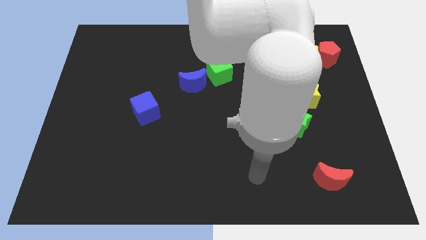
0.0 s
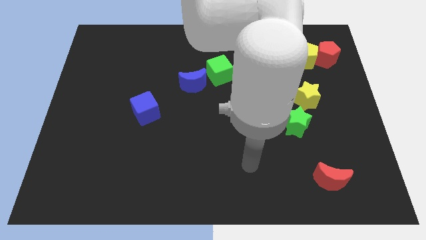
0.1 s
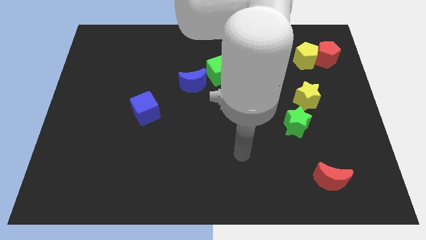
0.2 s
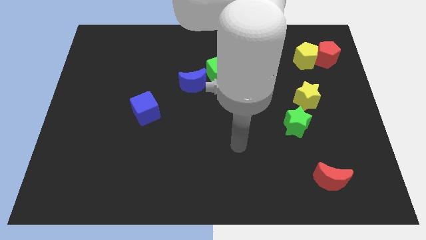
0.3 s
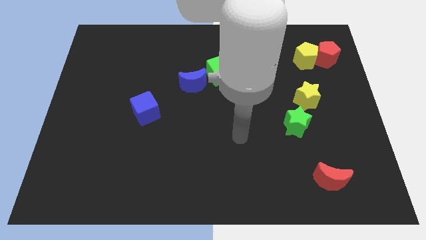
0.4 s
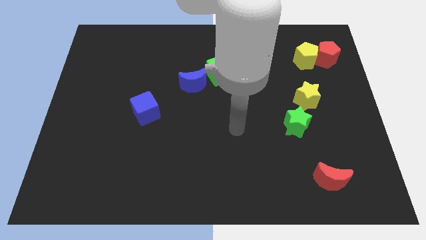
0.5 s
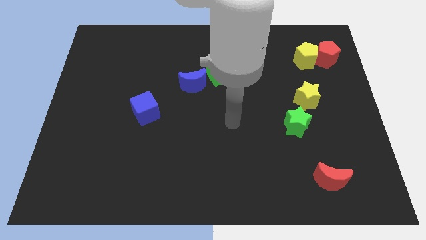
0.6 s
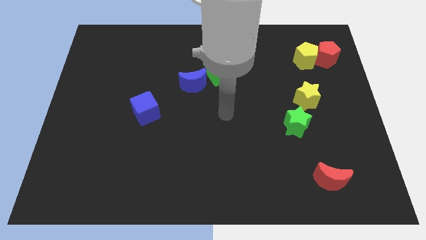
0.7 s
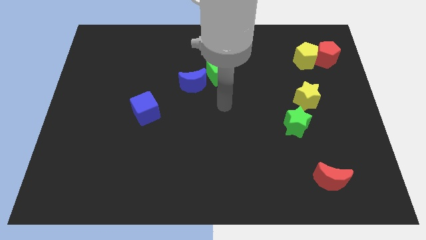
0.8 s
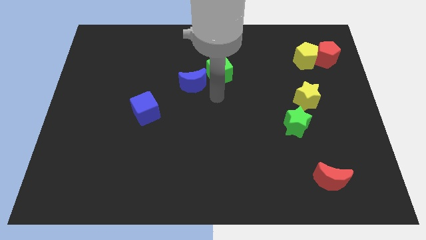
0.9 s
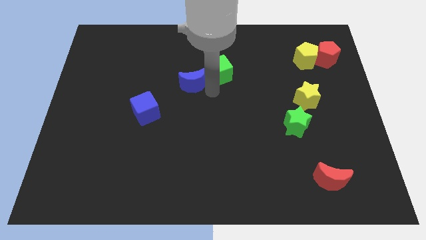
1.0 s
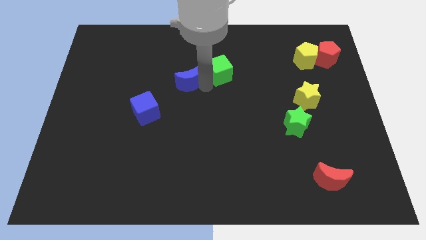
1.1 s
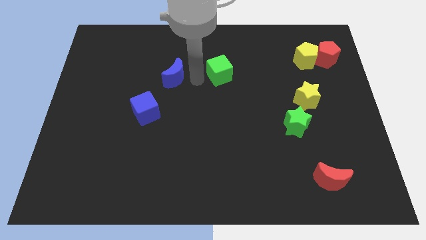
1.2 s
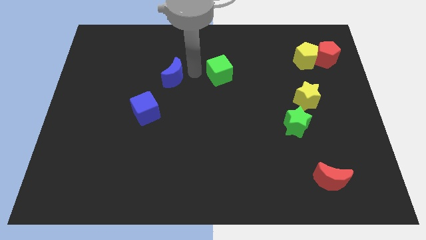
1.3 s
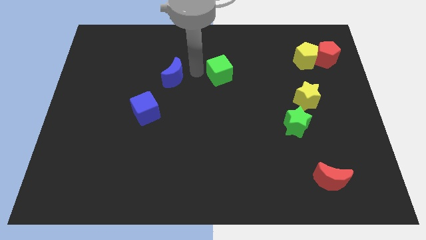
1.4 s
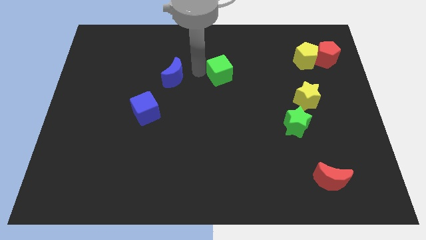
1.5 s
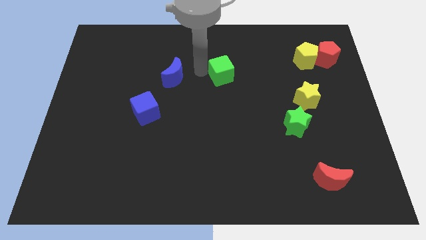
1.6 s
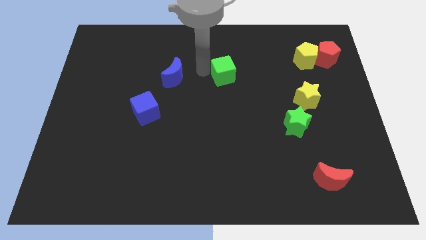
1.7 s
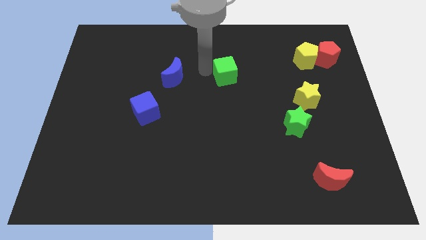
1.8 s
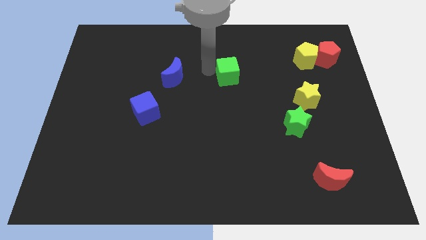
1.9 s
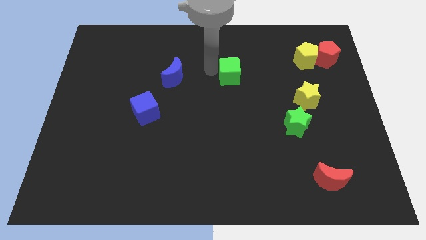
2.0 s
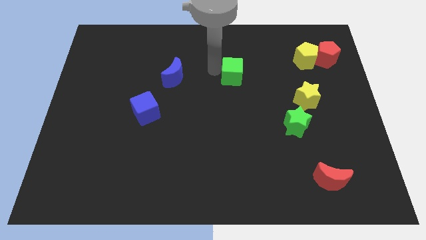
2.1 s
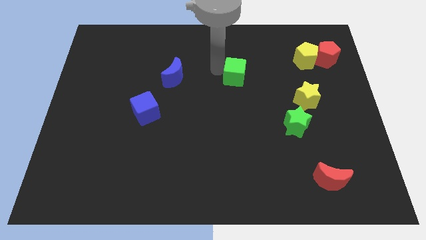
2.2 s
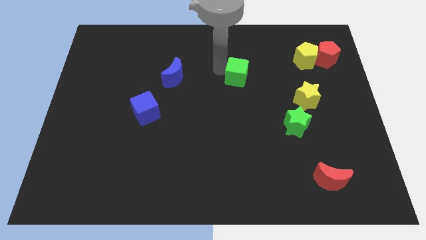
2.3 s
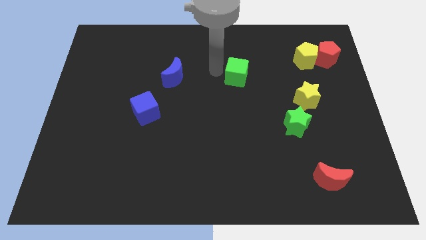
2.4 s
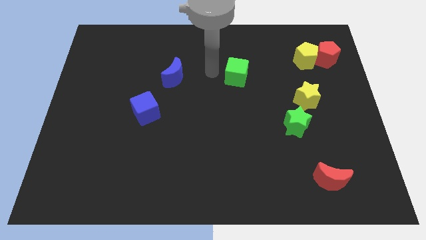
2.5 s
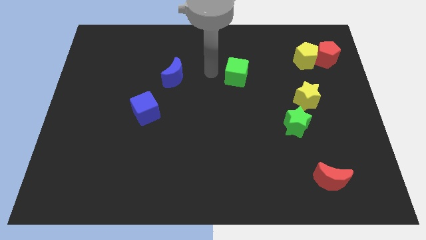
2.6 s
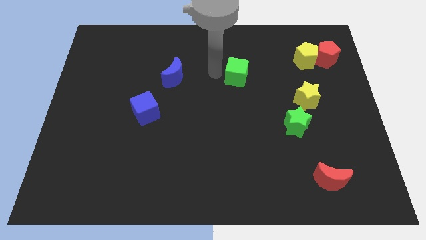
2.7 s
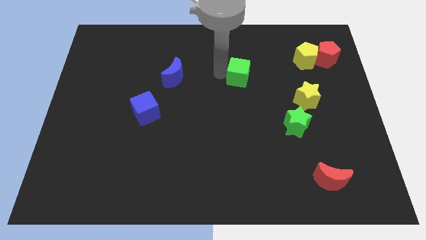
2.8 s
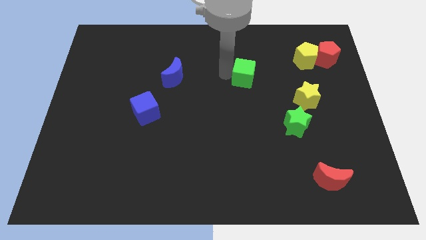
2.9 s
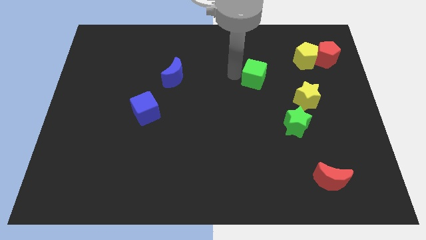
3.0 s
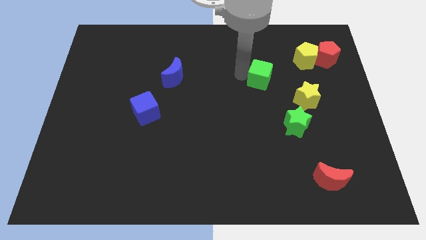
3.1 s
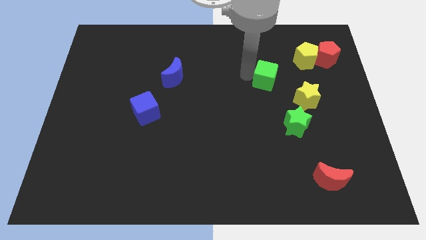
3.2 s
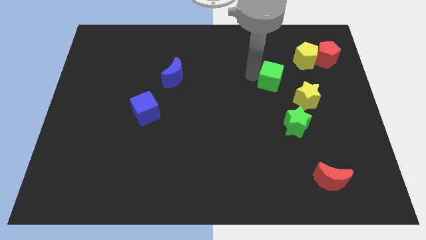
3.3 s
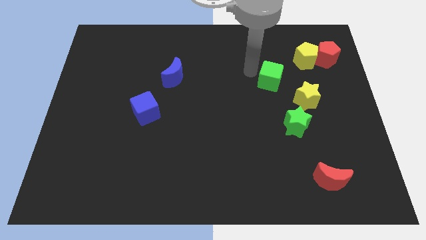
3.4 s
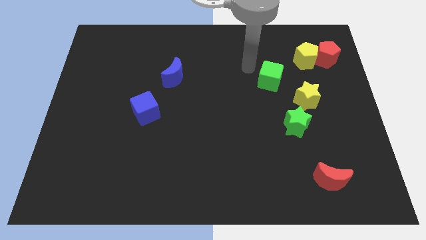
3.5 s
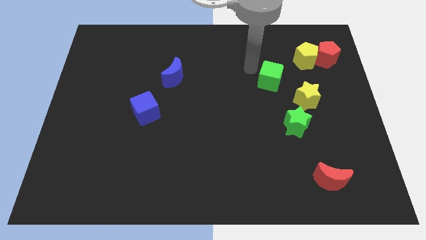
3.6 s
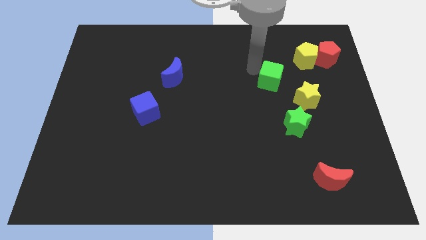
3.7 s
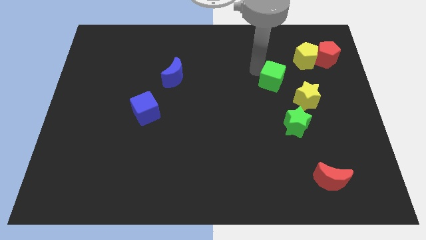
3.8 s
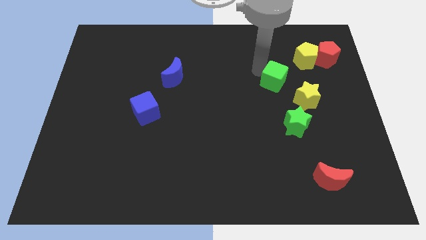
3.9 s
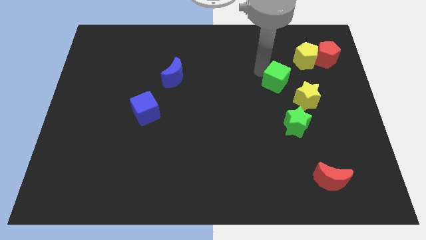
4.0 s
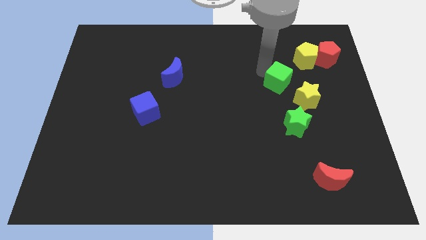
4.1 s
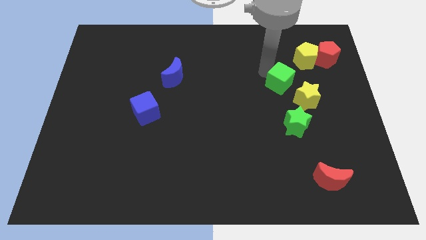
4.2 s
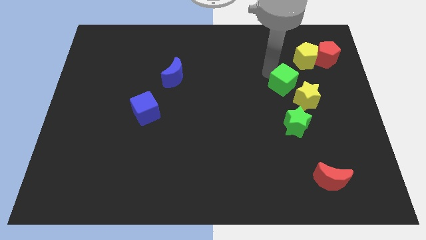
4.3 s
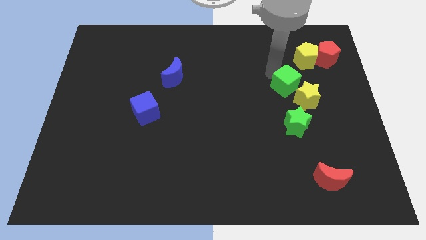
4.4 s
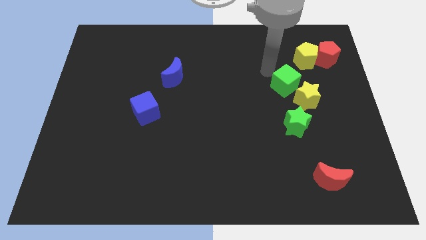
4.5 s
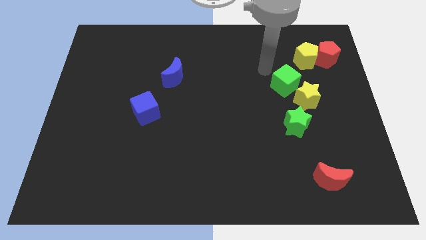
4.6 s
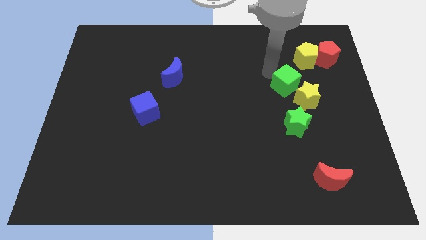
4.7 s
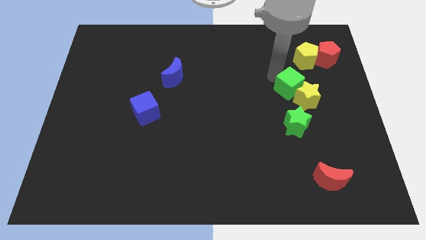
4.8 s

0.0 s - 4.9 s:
push the green cube close to the yellow star

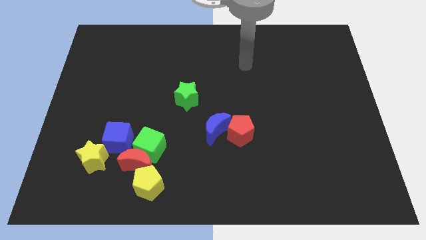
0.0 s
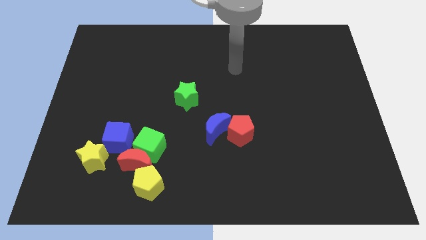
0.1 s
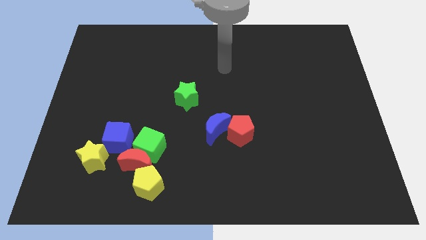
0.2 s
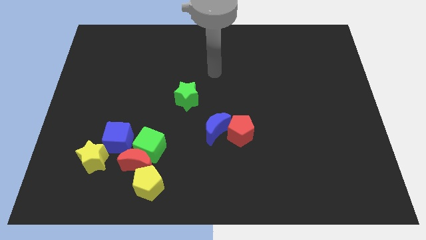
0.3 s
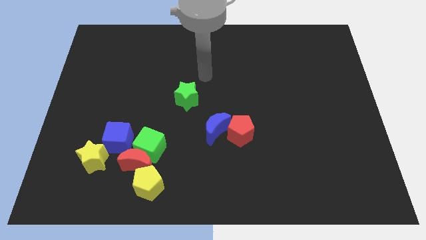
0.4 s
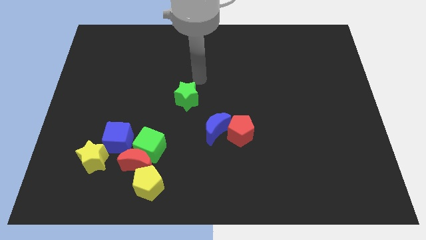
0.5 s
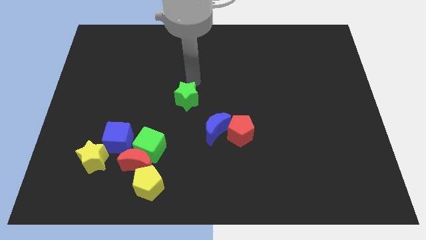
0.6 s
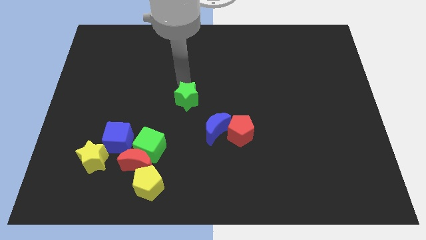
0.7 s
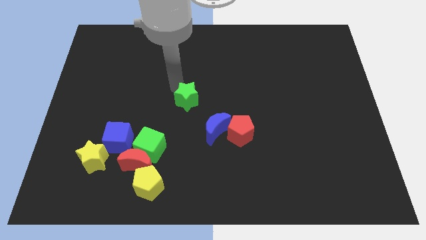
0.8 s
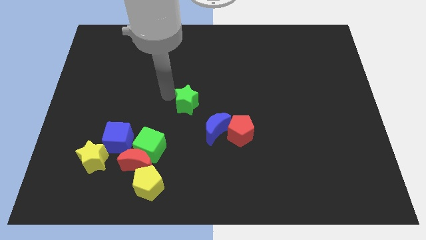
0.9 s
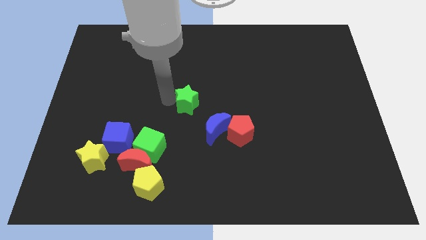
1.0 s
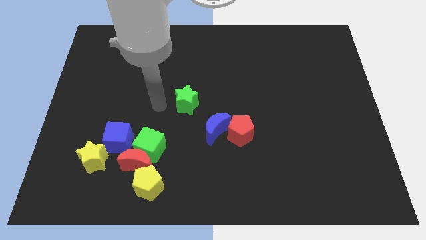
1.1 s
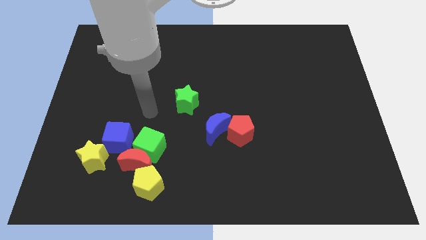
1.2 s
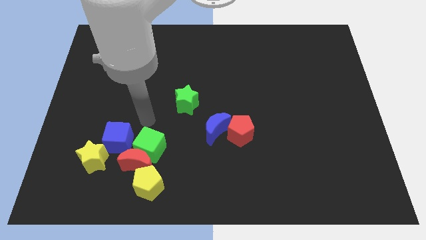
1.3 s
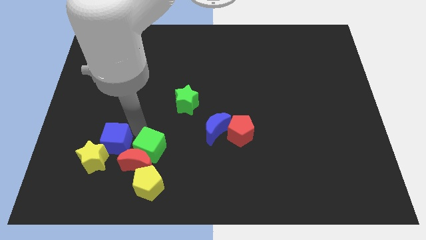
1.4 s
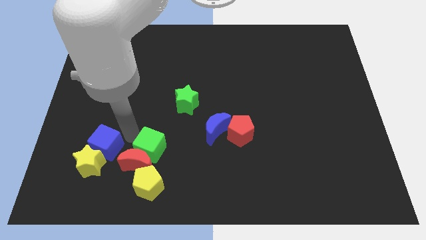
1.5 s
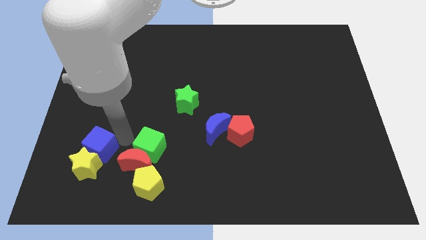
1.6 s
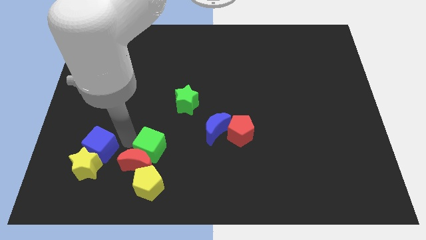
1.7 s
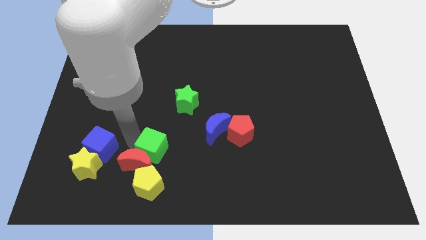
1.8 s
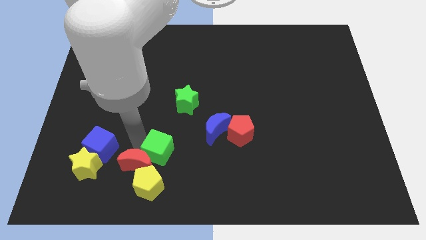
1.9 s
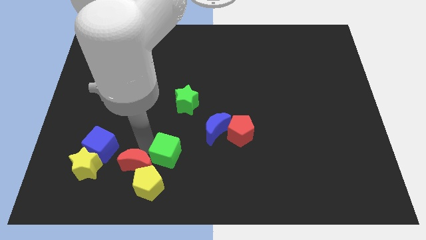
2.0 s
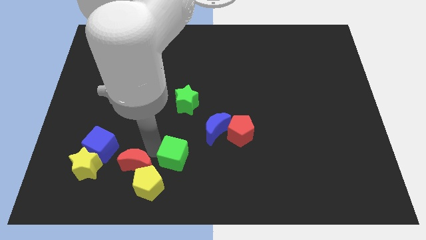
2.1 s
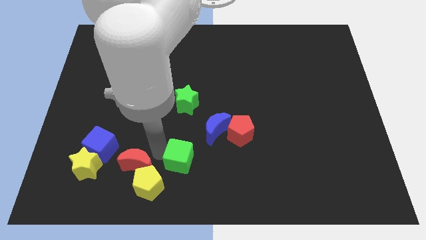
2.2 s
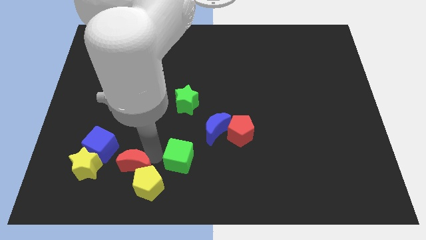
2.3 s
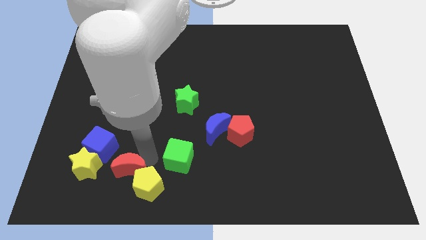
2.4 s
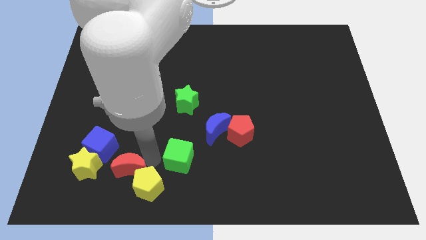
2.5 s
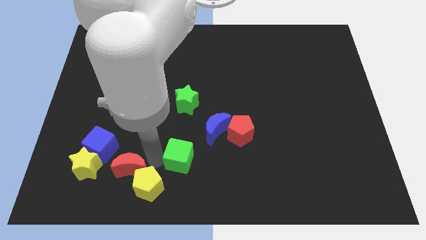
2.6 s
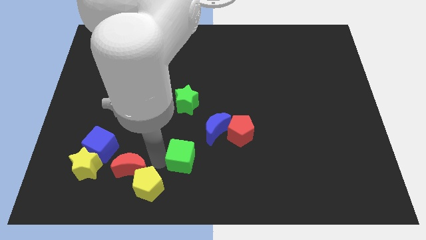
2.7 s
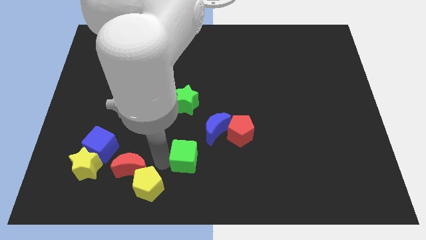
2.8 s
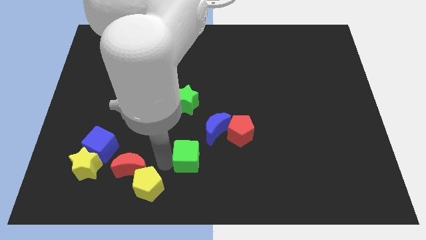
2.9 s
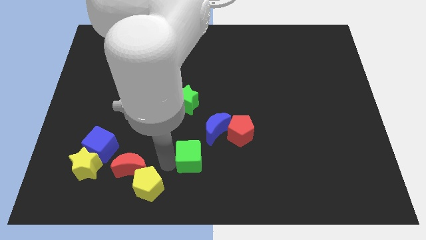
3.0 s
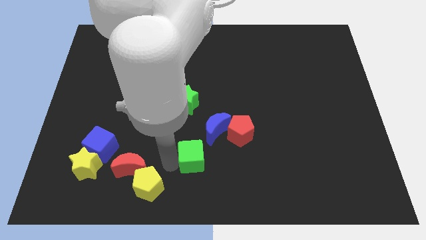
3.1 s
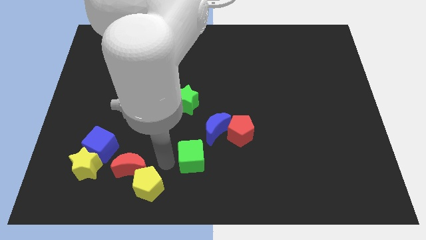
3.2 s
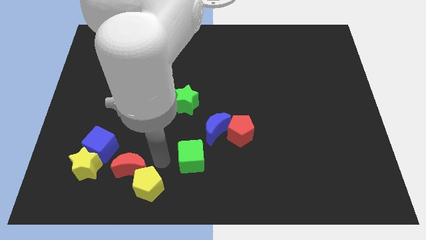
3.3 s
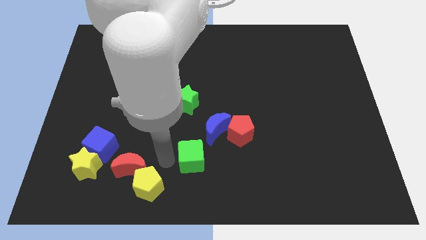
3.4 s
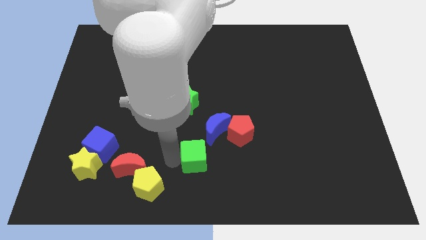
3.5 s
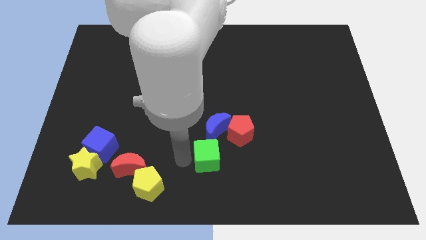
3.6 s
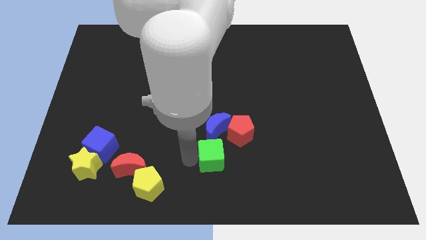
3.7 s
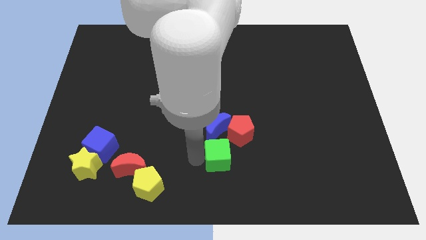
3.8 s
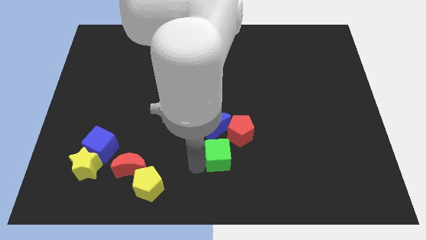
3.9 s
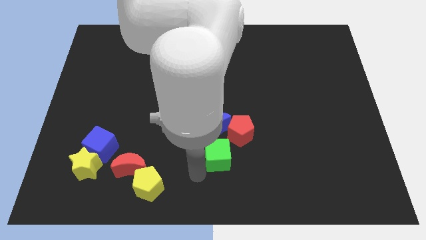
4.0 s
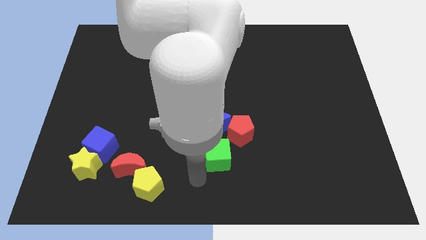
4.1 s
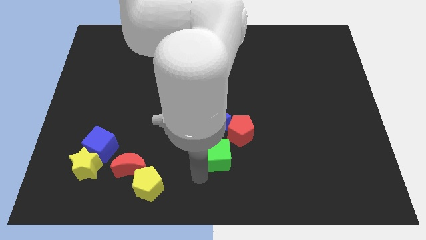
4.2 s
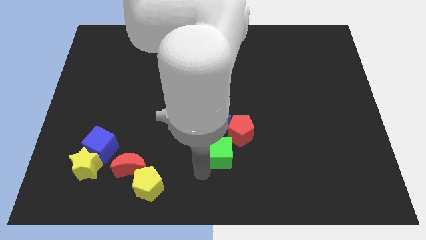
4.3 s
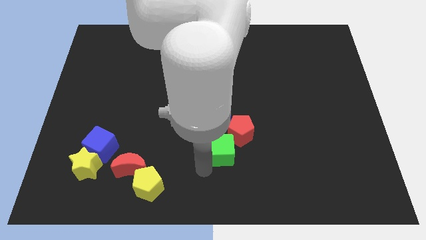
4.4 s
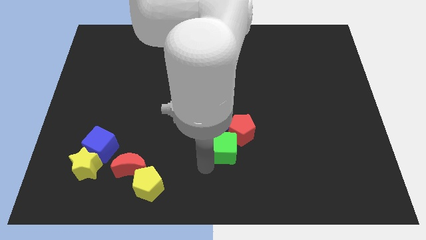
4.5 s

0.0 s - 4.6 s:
push the green cube close to the red pentagon
